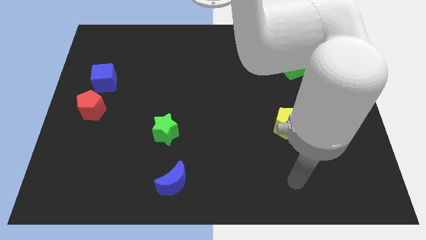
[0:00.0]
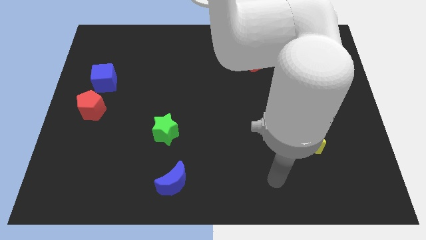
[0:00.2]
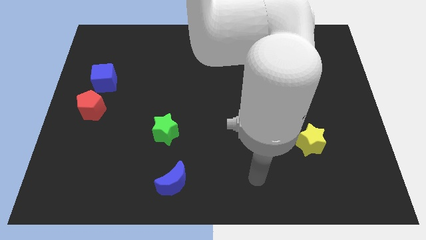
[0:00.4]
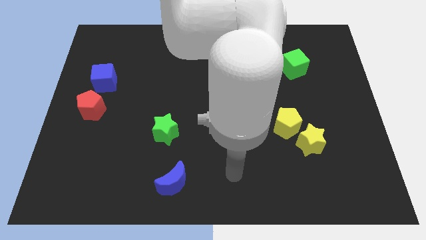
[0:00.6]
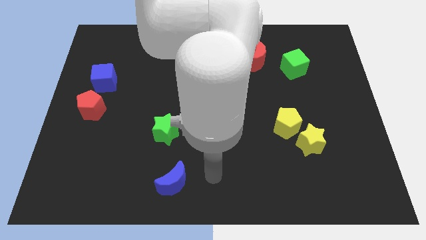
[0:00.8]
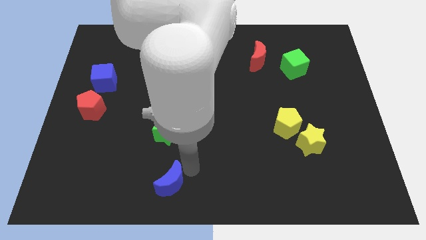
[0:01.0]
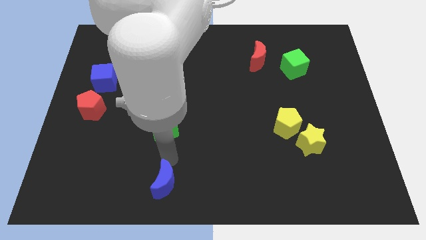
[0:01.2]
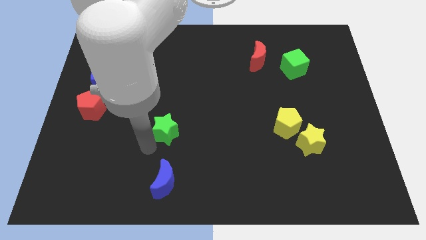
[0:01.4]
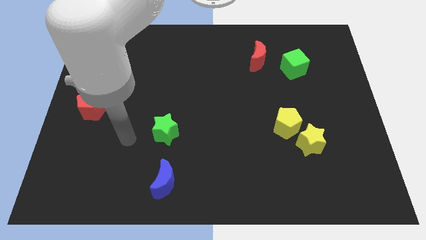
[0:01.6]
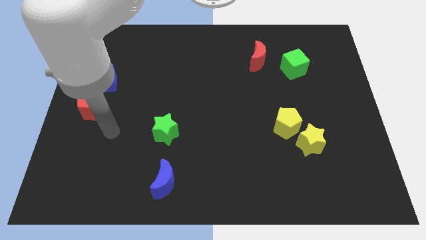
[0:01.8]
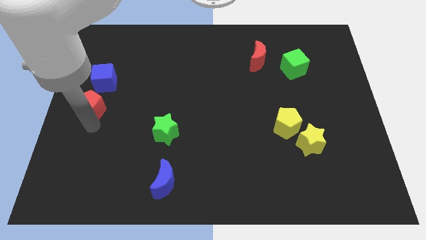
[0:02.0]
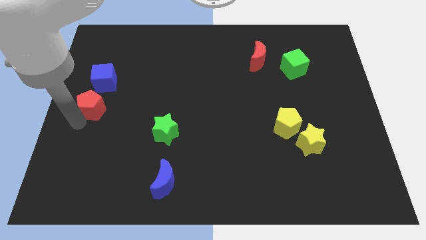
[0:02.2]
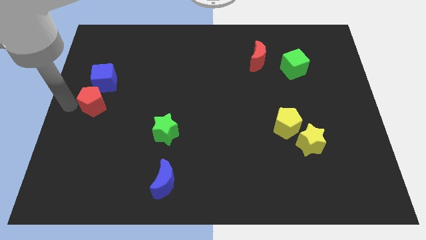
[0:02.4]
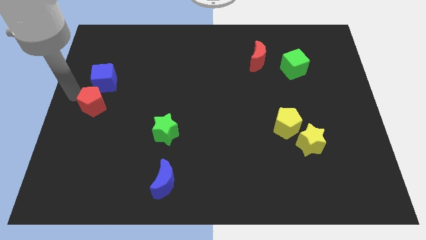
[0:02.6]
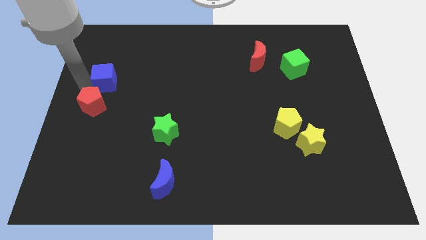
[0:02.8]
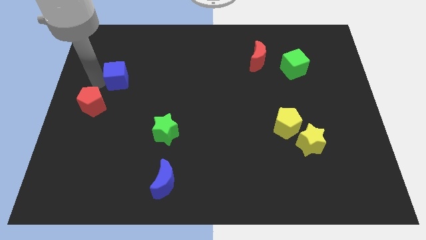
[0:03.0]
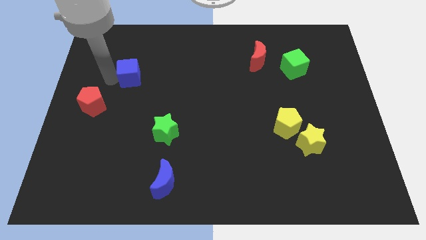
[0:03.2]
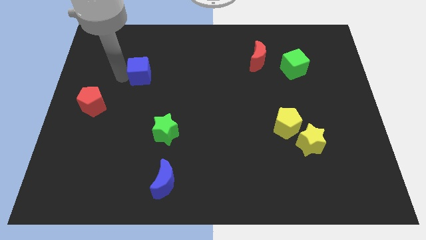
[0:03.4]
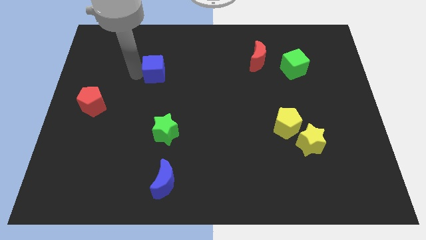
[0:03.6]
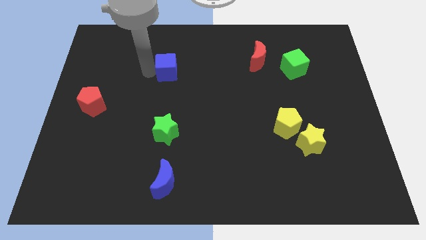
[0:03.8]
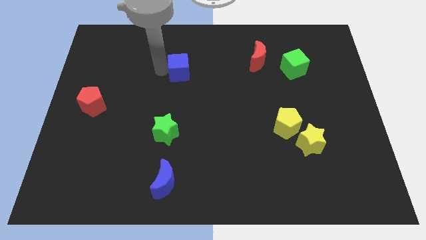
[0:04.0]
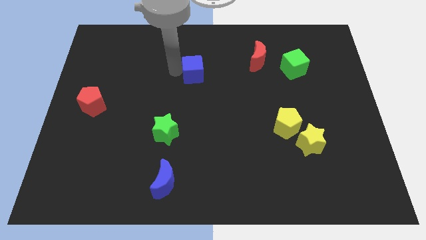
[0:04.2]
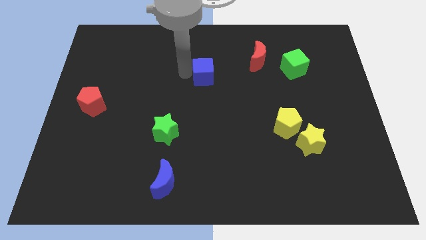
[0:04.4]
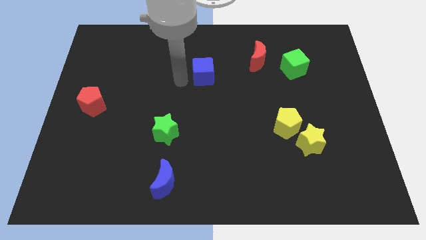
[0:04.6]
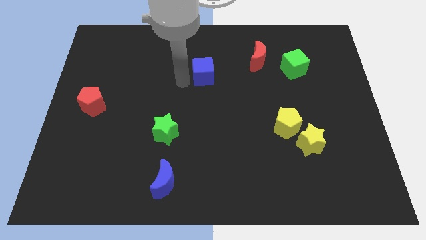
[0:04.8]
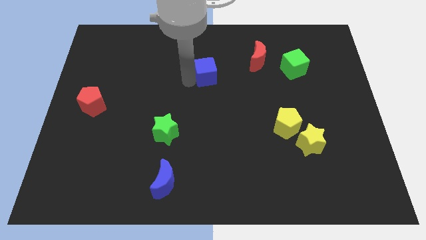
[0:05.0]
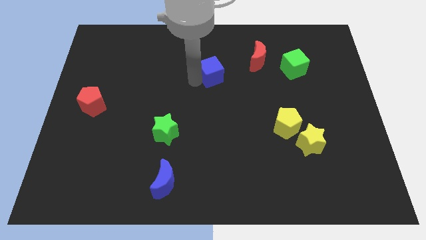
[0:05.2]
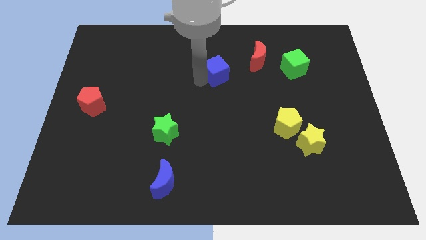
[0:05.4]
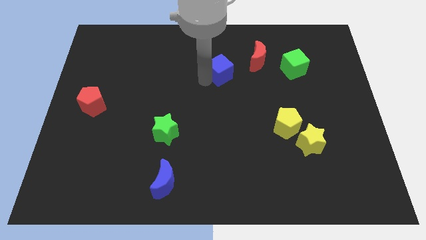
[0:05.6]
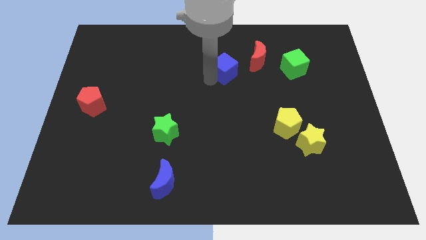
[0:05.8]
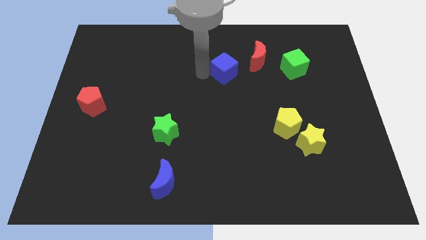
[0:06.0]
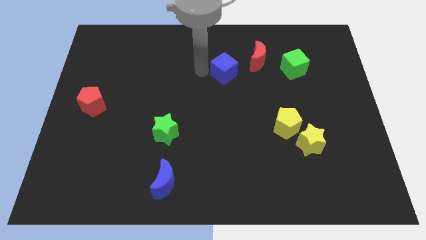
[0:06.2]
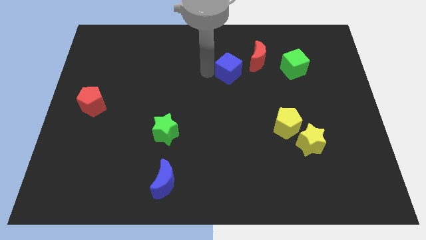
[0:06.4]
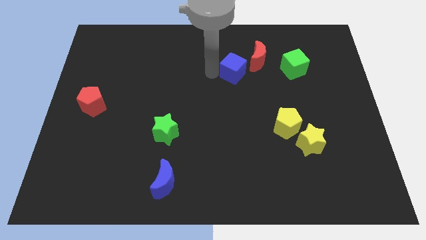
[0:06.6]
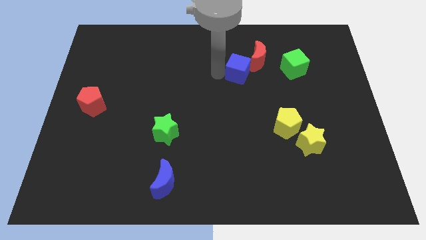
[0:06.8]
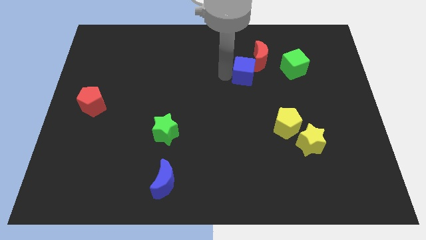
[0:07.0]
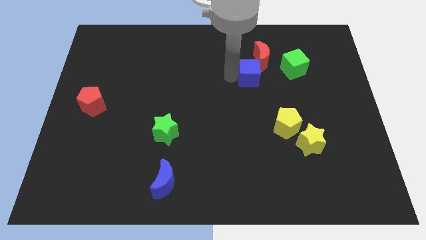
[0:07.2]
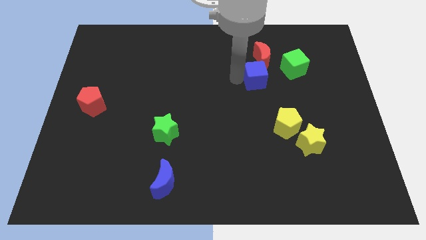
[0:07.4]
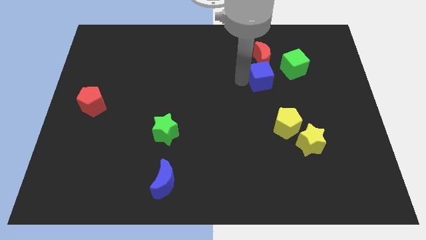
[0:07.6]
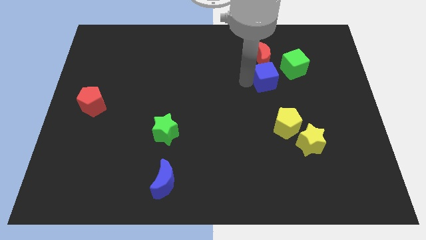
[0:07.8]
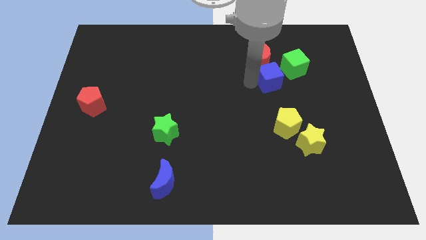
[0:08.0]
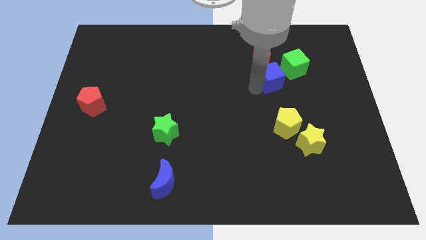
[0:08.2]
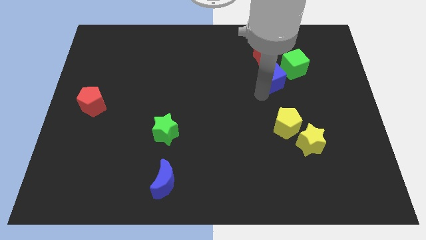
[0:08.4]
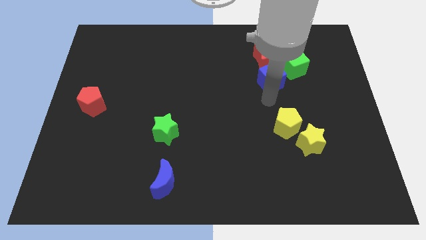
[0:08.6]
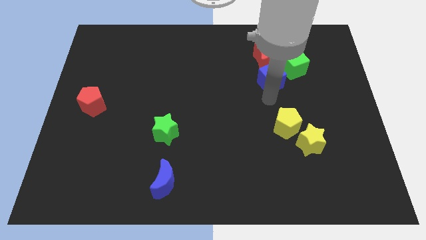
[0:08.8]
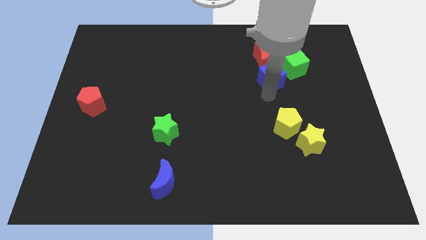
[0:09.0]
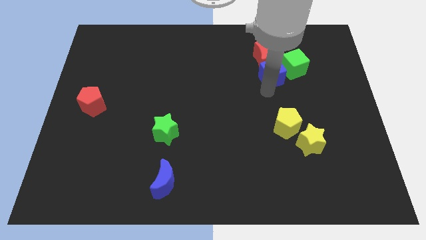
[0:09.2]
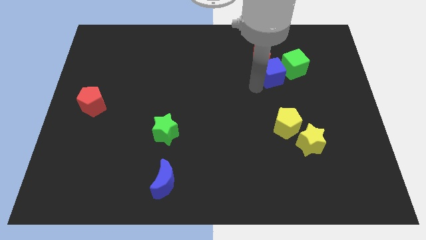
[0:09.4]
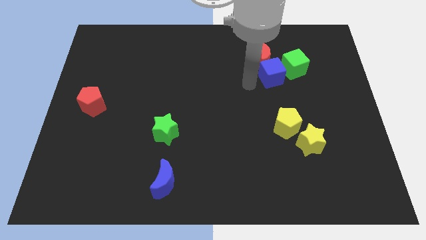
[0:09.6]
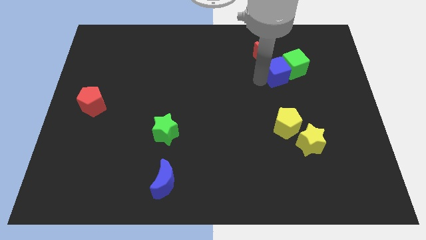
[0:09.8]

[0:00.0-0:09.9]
slide the blue cube next to the green cube

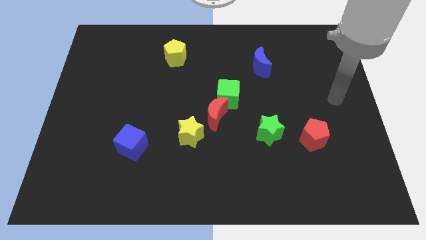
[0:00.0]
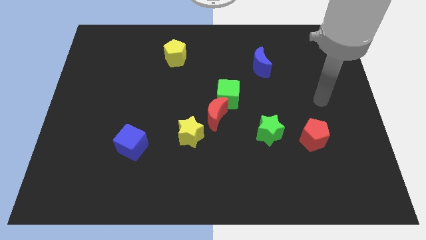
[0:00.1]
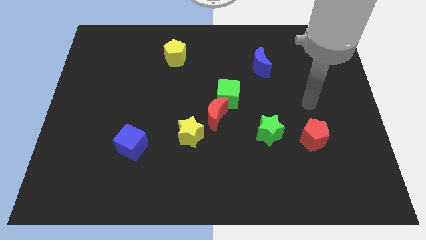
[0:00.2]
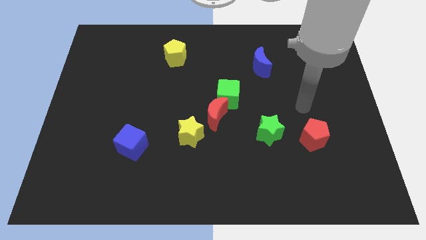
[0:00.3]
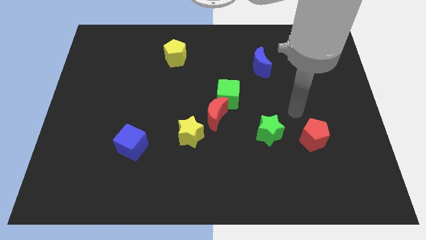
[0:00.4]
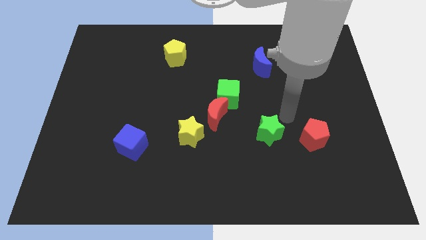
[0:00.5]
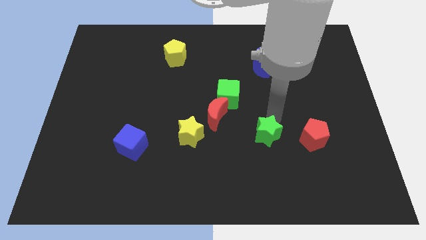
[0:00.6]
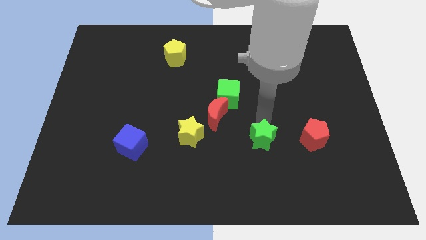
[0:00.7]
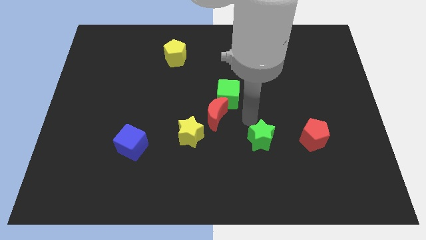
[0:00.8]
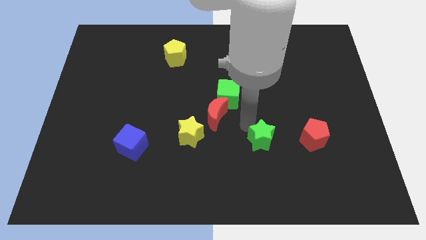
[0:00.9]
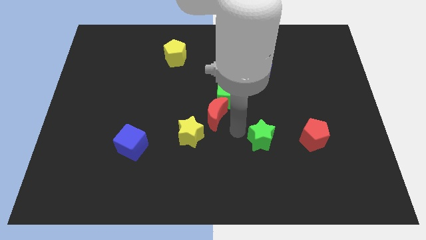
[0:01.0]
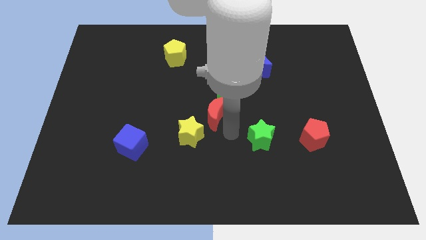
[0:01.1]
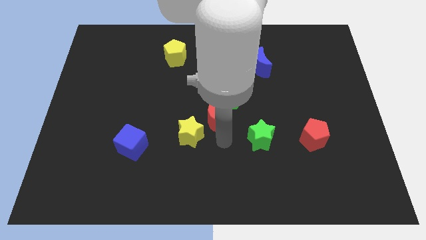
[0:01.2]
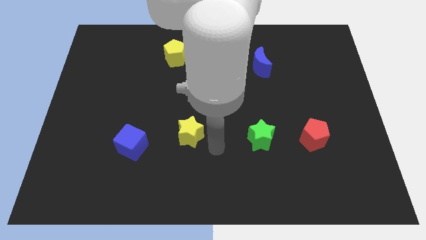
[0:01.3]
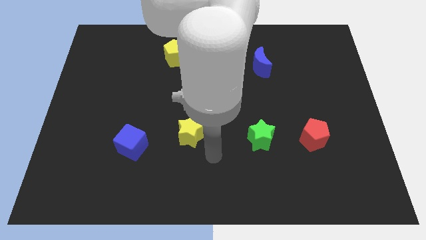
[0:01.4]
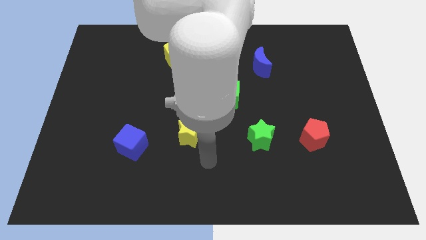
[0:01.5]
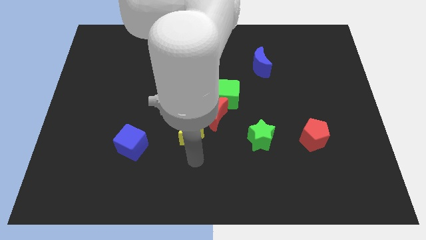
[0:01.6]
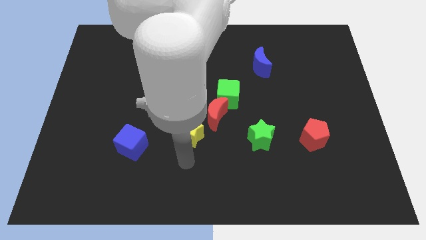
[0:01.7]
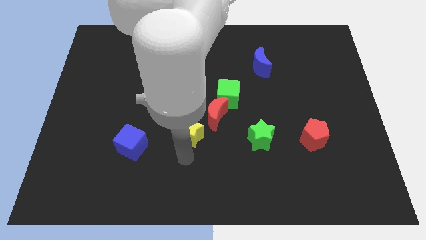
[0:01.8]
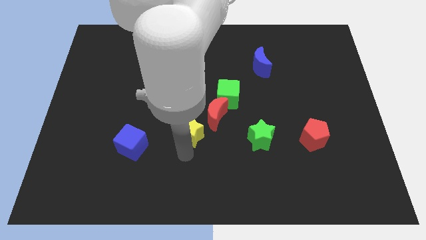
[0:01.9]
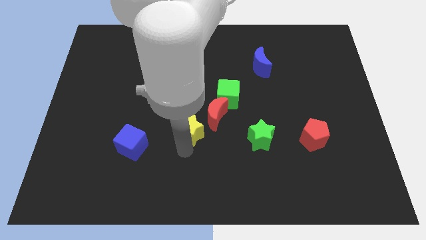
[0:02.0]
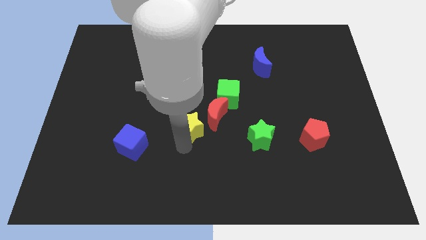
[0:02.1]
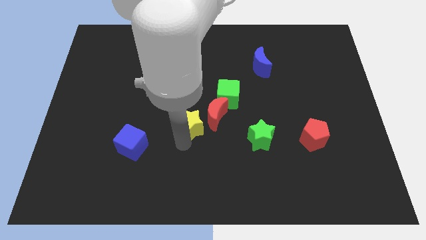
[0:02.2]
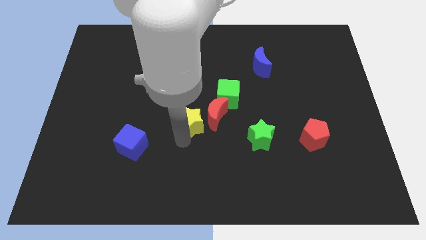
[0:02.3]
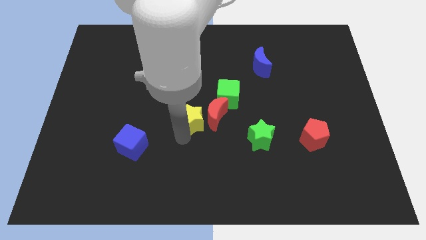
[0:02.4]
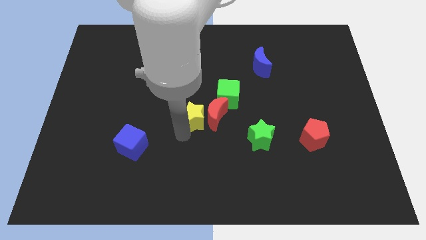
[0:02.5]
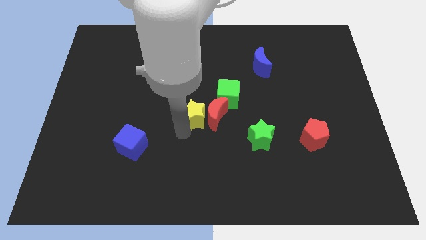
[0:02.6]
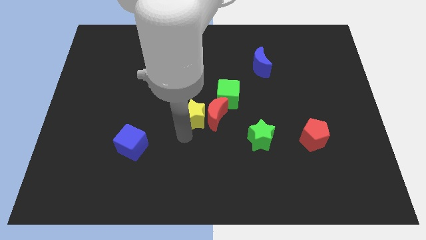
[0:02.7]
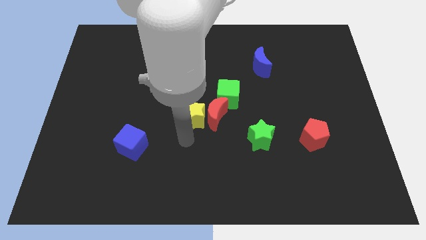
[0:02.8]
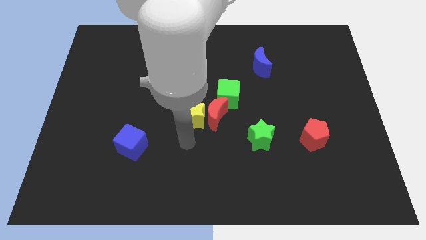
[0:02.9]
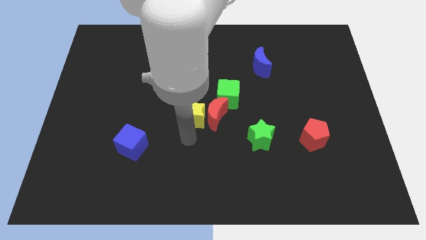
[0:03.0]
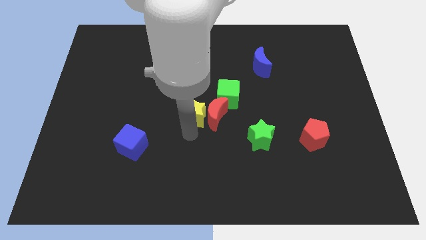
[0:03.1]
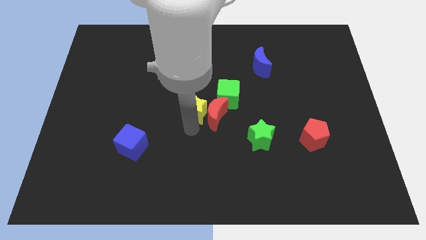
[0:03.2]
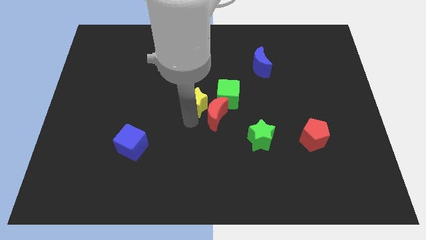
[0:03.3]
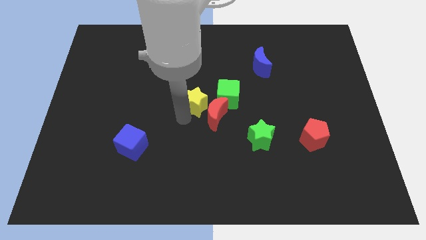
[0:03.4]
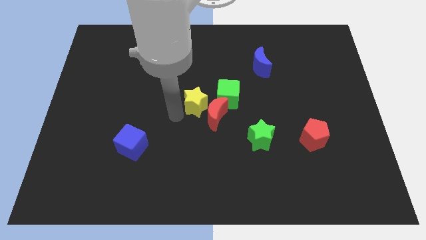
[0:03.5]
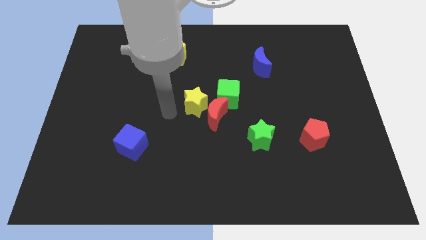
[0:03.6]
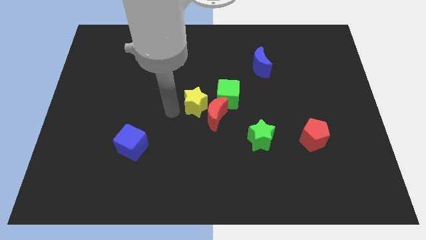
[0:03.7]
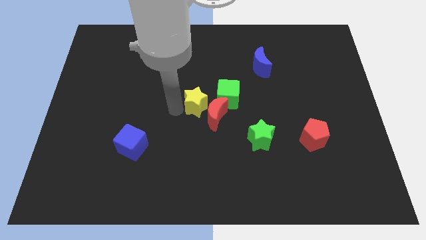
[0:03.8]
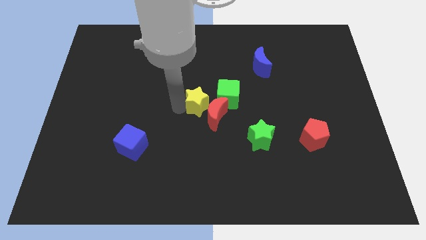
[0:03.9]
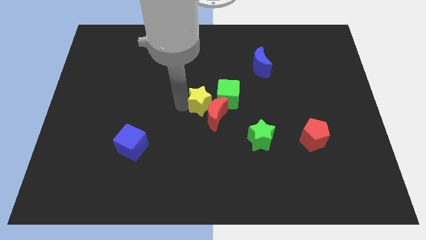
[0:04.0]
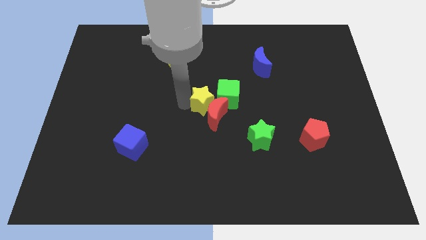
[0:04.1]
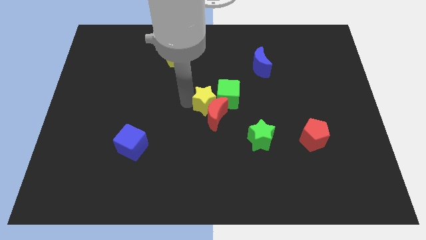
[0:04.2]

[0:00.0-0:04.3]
put the yellow star close to the green cube
